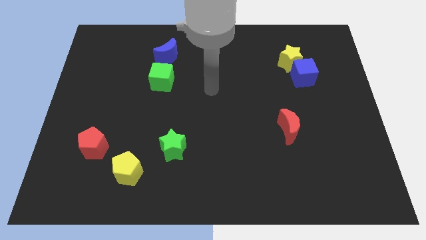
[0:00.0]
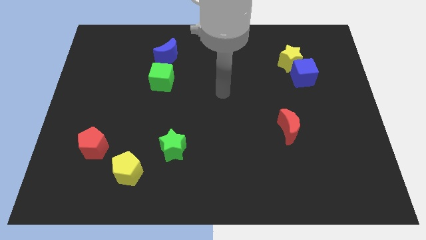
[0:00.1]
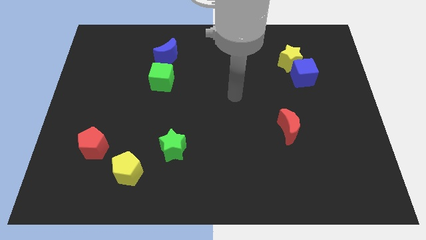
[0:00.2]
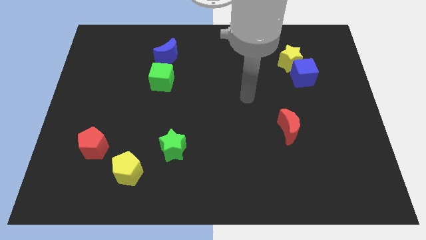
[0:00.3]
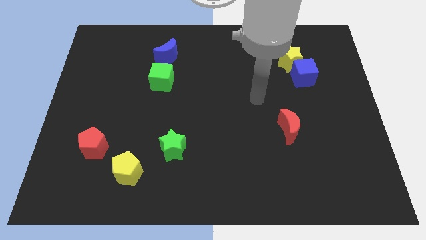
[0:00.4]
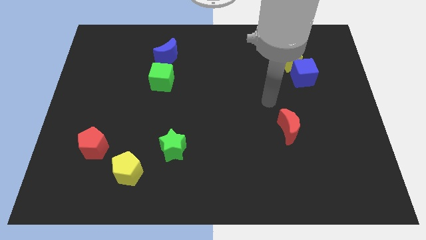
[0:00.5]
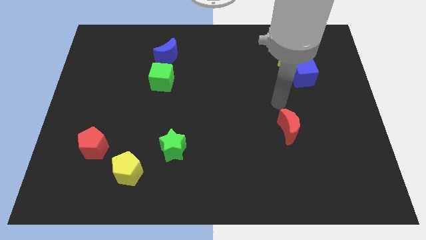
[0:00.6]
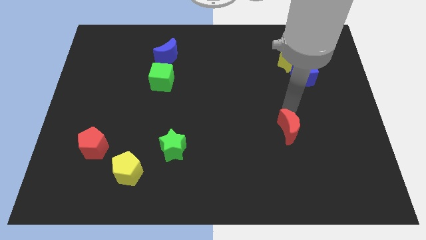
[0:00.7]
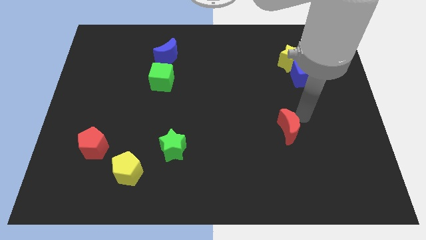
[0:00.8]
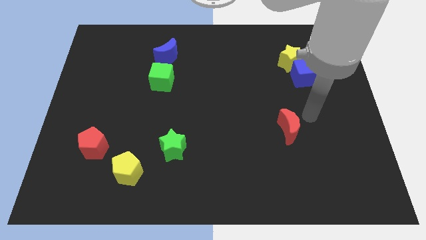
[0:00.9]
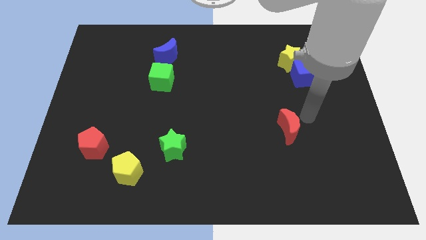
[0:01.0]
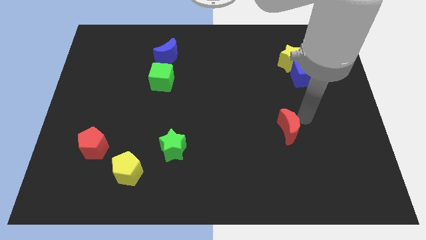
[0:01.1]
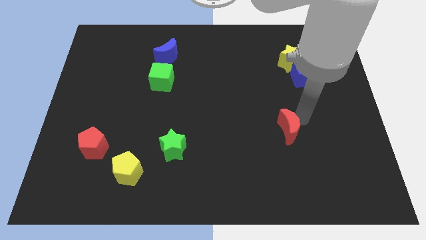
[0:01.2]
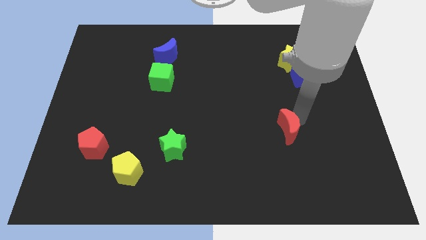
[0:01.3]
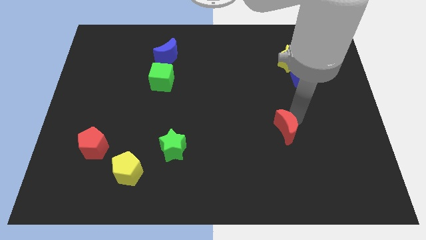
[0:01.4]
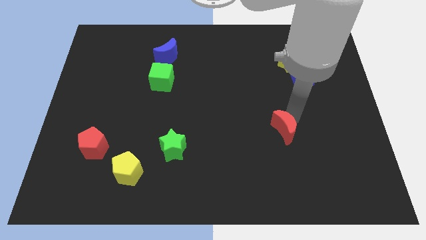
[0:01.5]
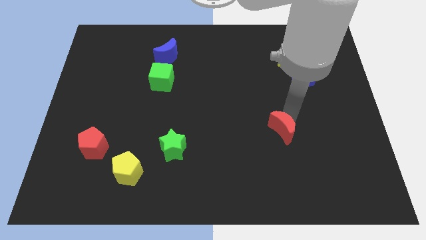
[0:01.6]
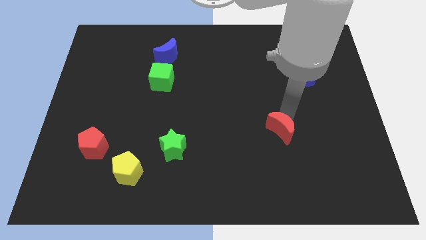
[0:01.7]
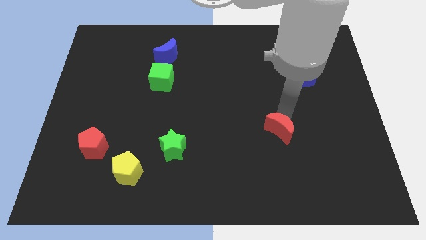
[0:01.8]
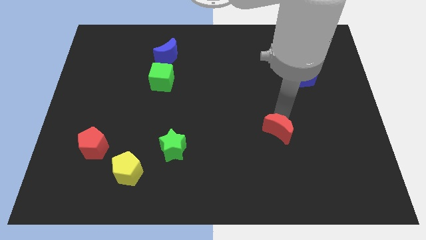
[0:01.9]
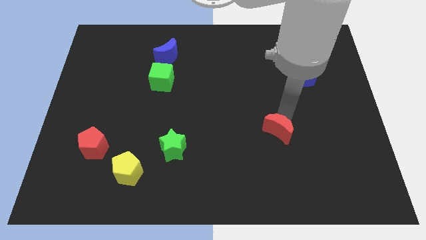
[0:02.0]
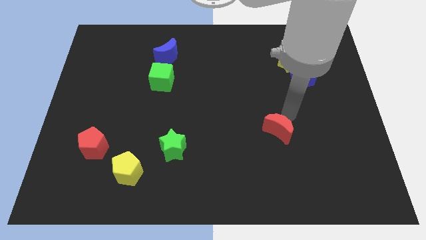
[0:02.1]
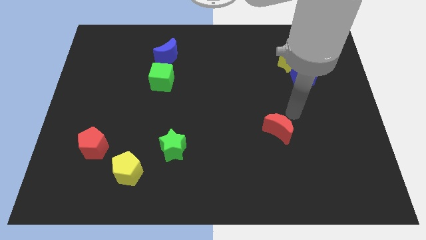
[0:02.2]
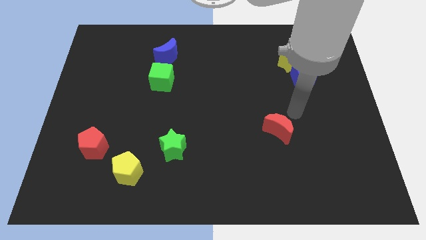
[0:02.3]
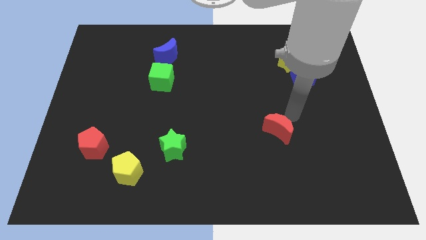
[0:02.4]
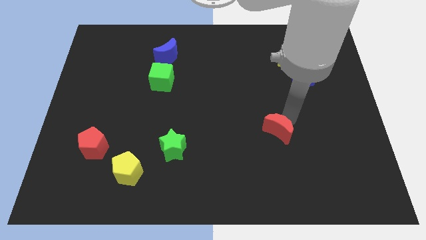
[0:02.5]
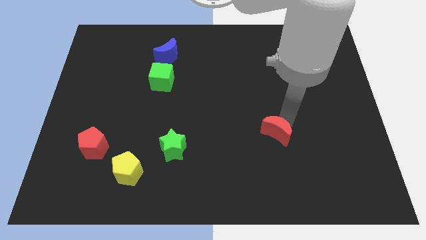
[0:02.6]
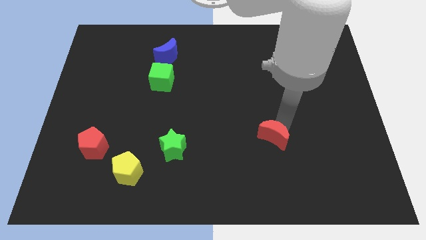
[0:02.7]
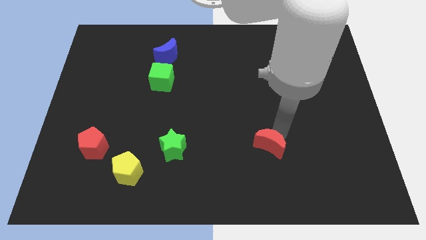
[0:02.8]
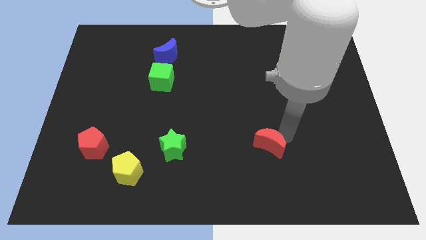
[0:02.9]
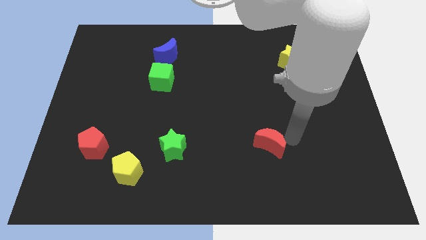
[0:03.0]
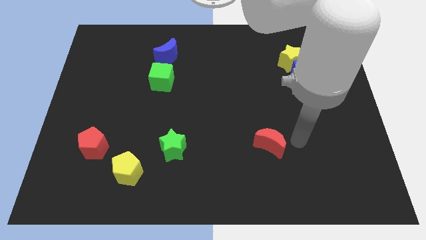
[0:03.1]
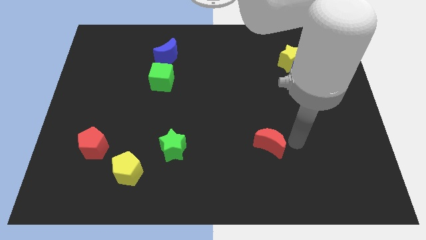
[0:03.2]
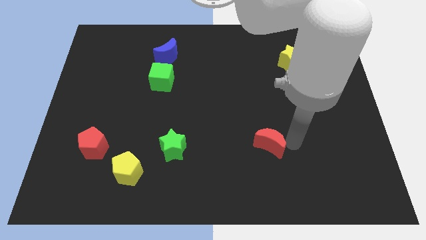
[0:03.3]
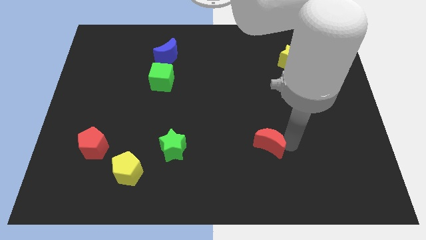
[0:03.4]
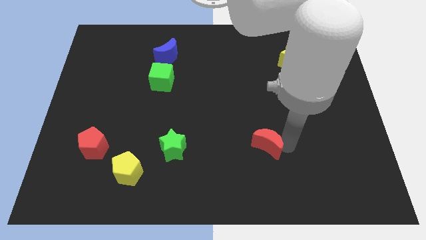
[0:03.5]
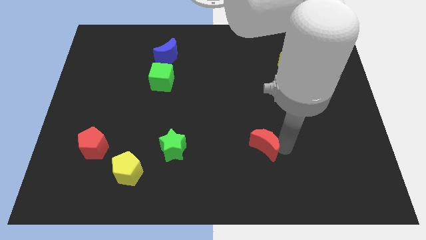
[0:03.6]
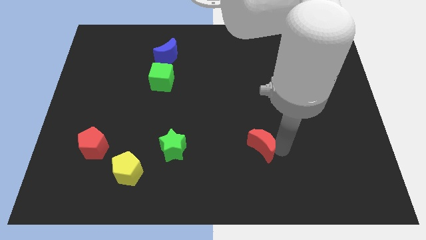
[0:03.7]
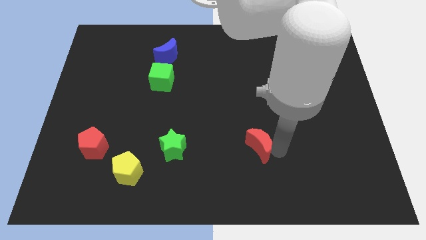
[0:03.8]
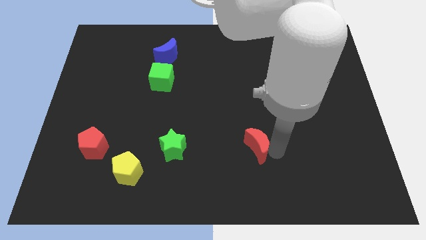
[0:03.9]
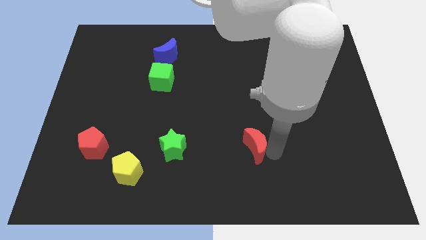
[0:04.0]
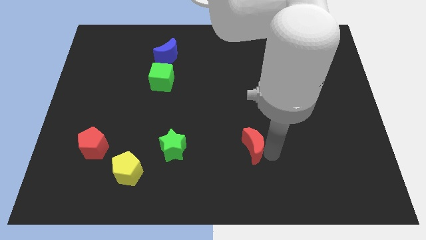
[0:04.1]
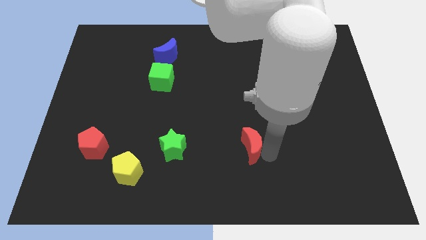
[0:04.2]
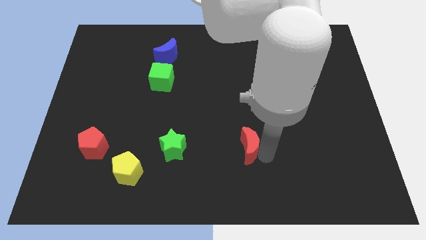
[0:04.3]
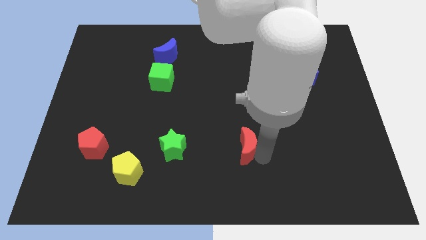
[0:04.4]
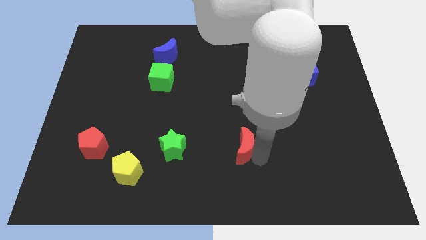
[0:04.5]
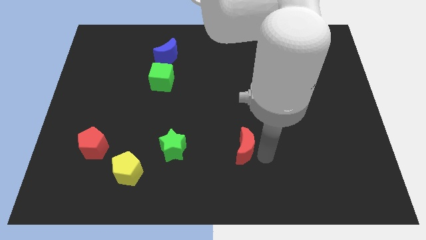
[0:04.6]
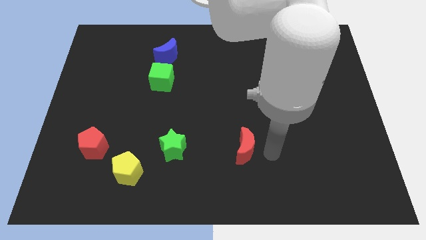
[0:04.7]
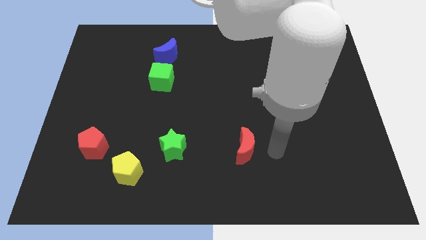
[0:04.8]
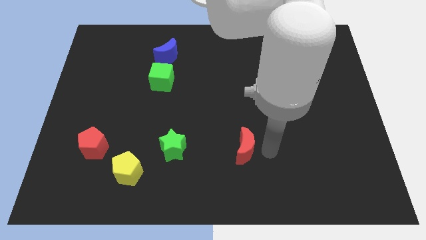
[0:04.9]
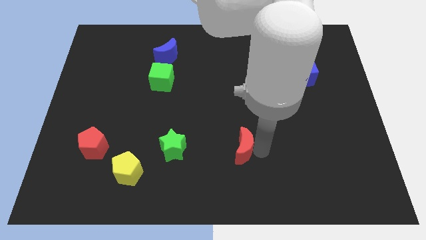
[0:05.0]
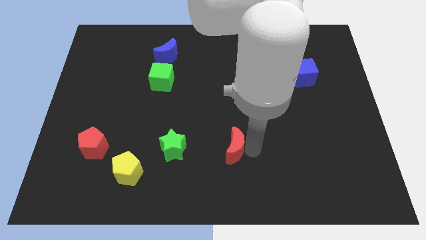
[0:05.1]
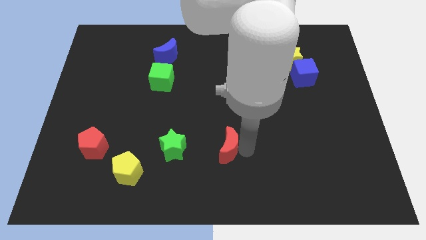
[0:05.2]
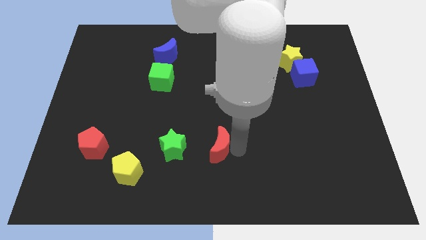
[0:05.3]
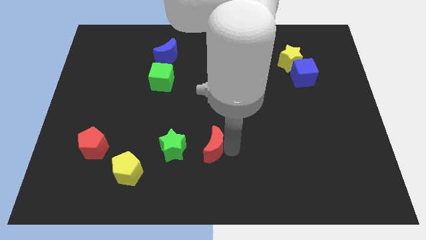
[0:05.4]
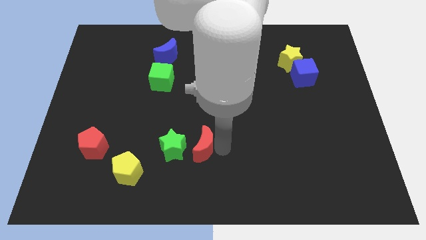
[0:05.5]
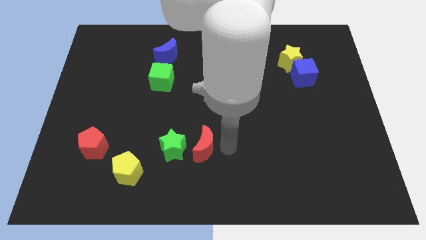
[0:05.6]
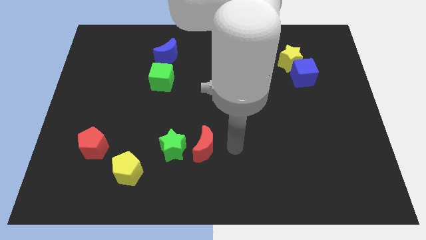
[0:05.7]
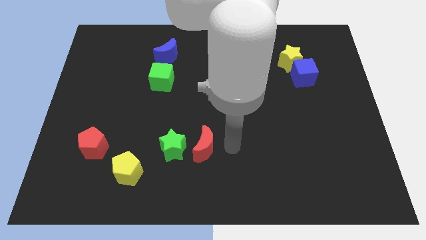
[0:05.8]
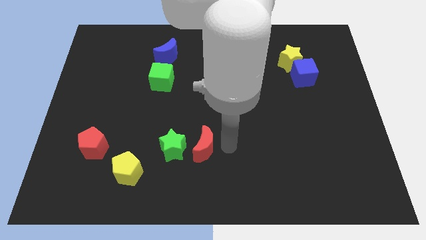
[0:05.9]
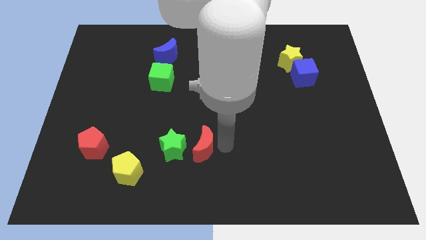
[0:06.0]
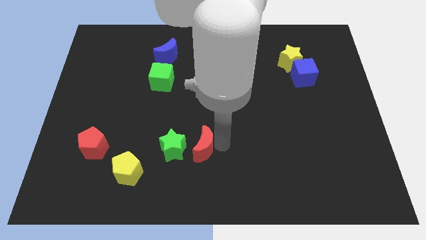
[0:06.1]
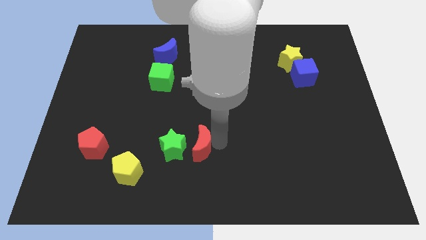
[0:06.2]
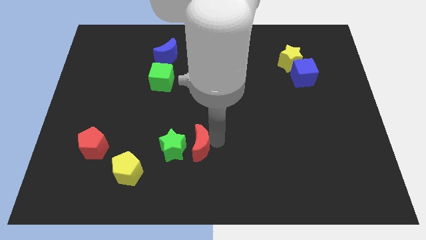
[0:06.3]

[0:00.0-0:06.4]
put the red moon to the green star
